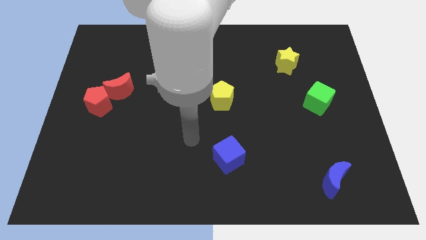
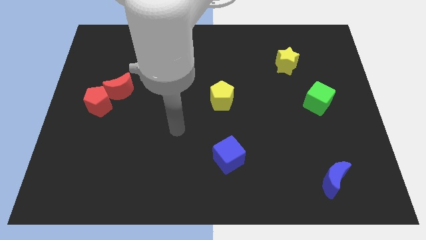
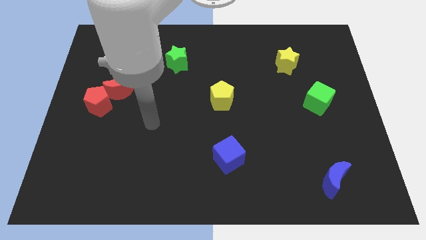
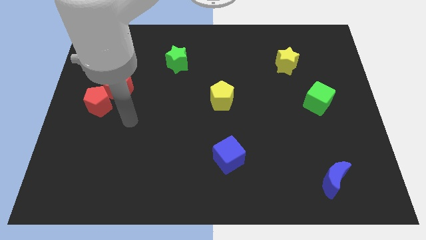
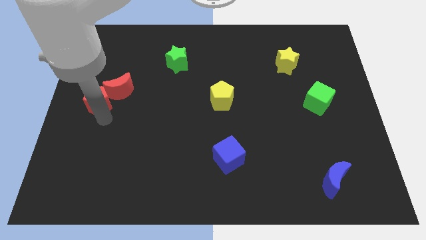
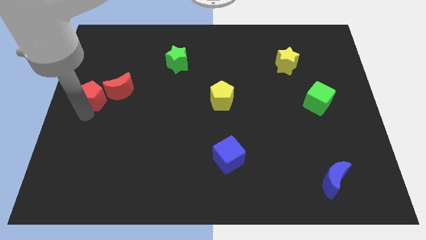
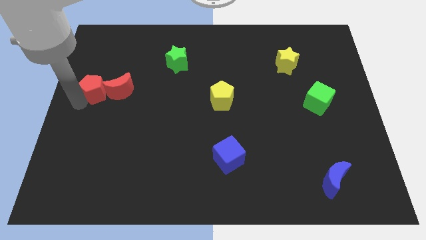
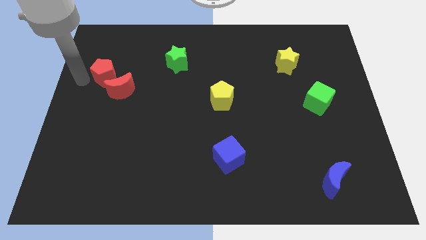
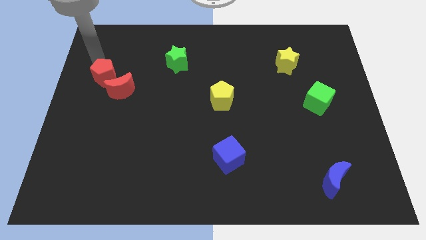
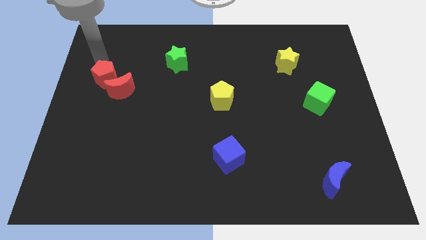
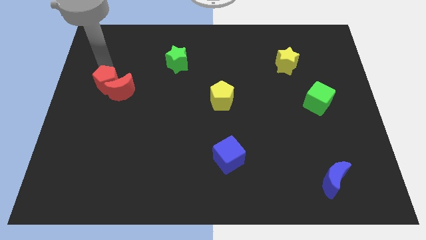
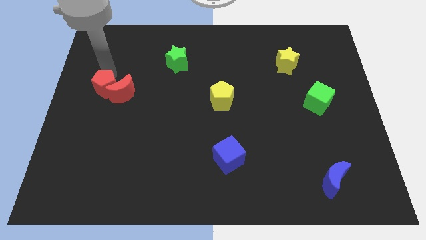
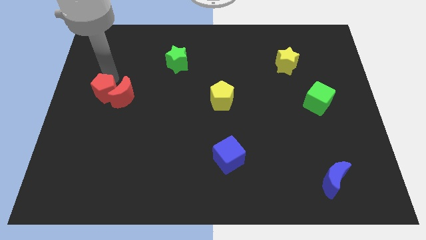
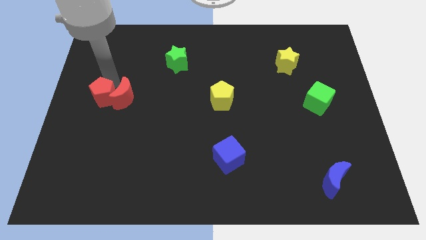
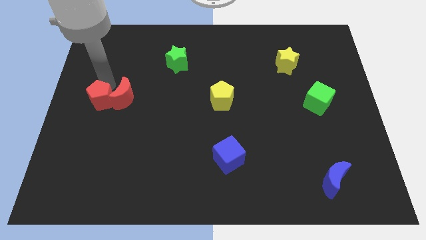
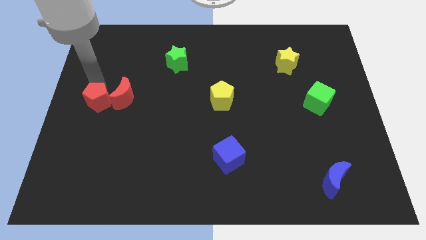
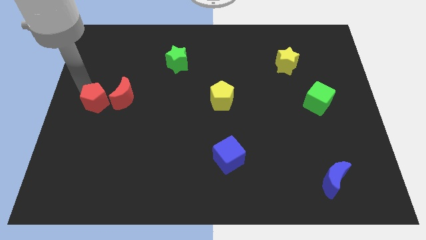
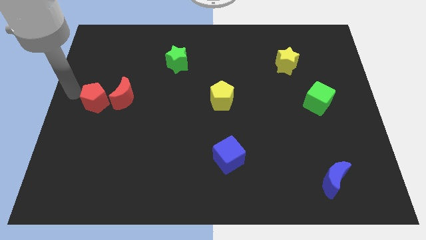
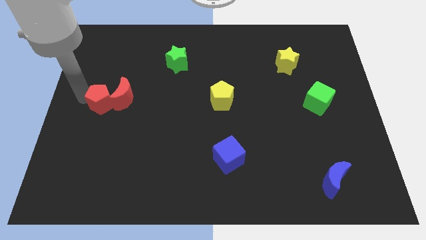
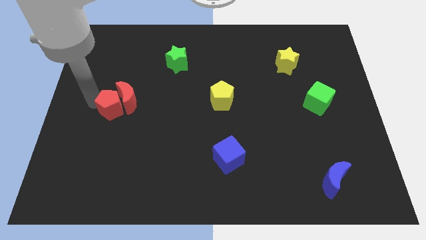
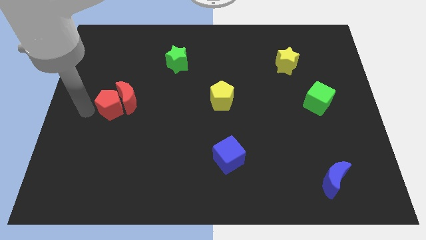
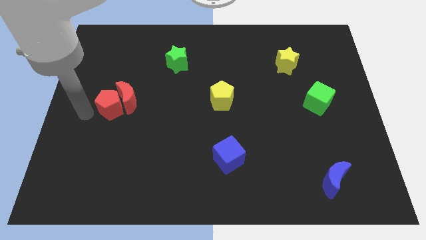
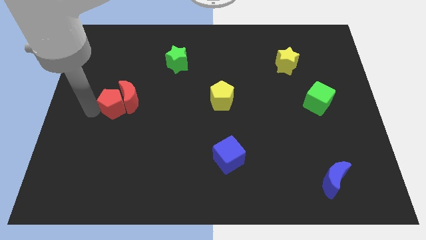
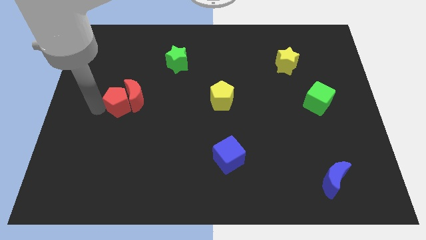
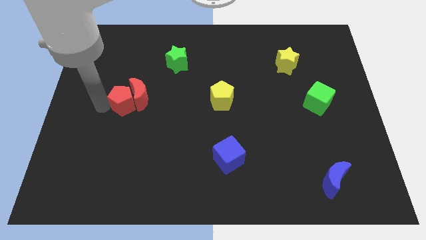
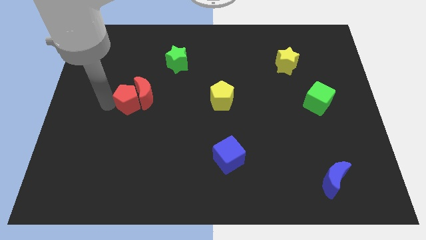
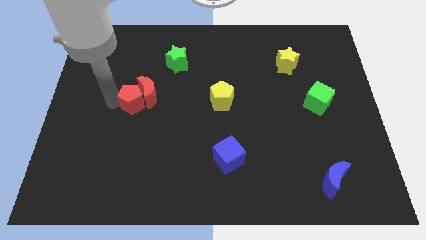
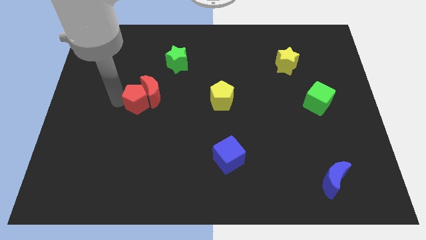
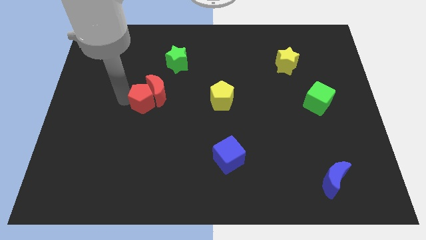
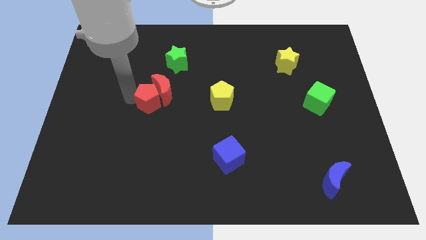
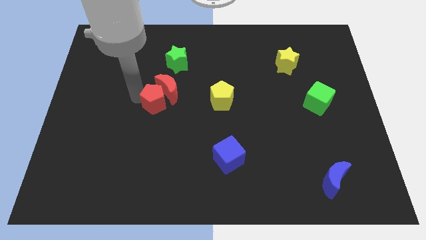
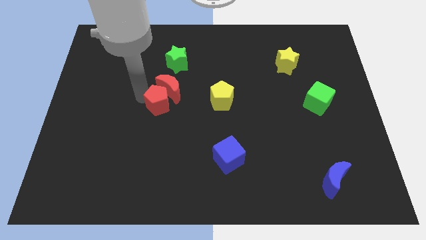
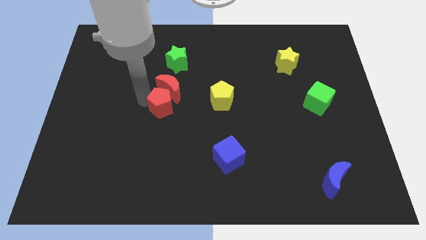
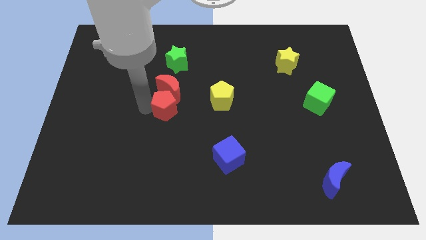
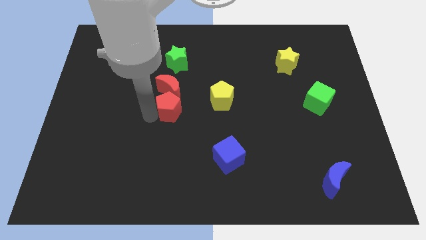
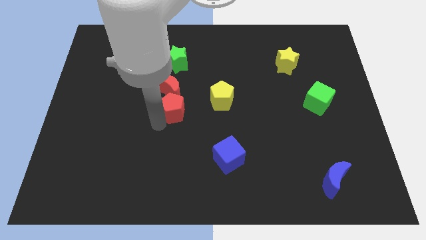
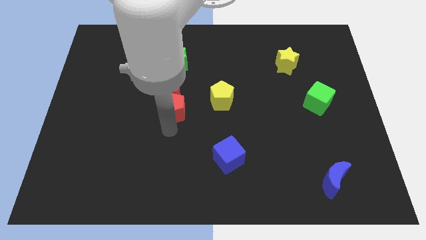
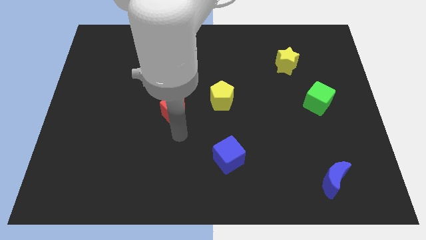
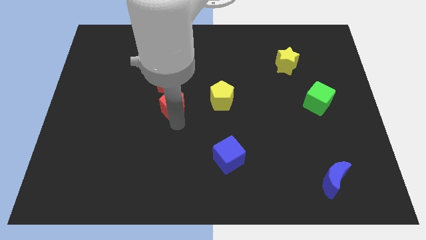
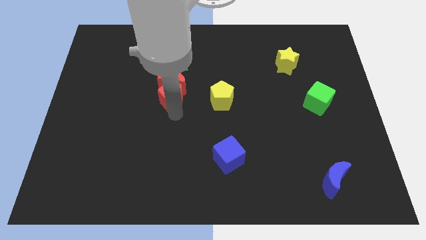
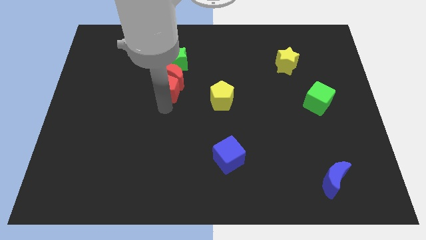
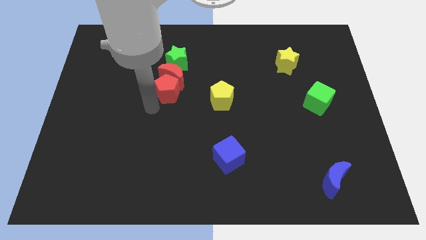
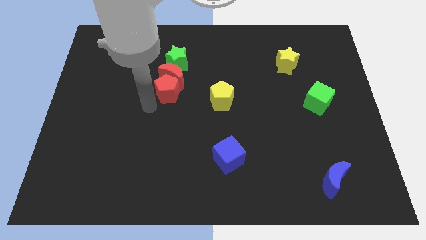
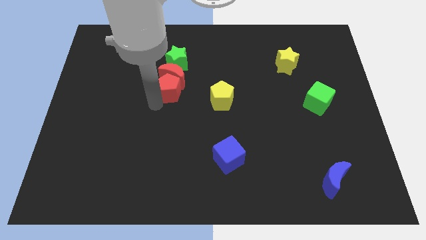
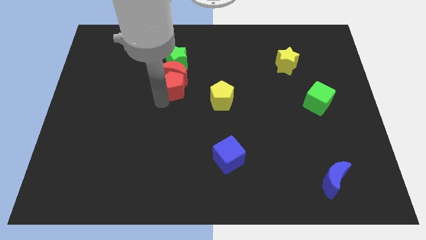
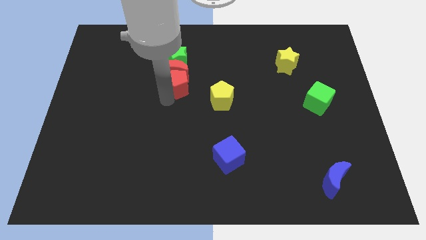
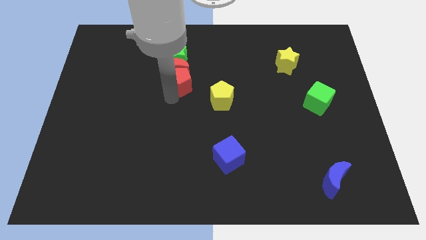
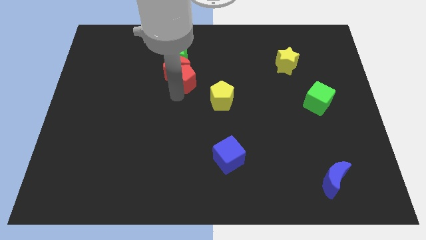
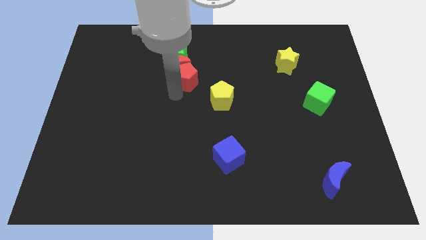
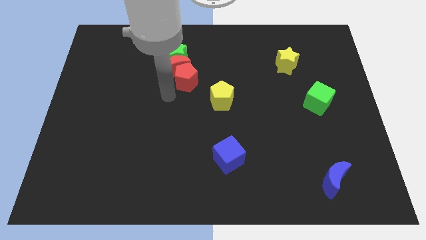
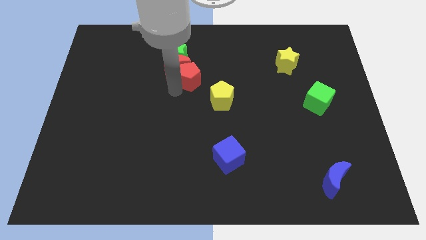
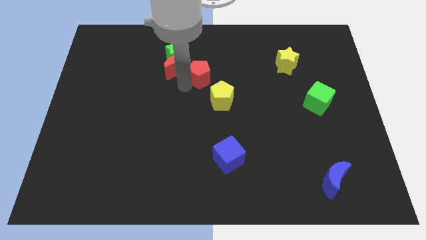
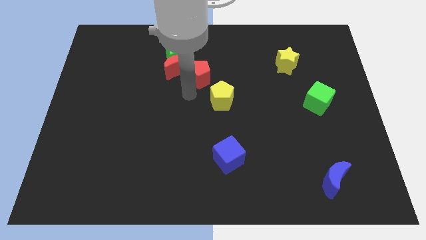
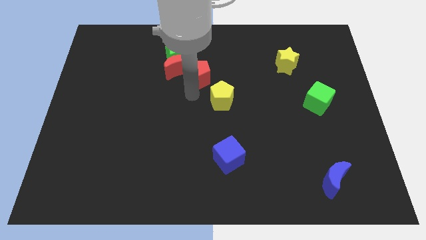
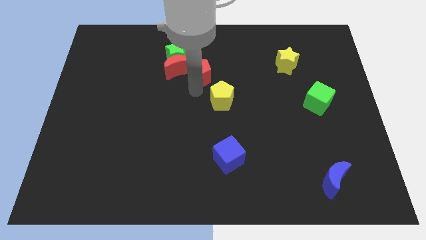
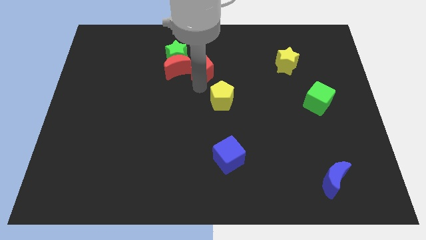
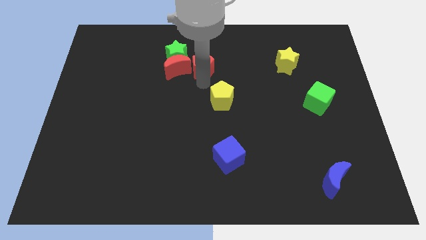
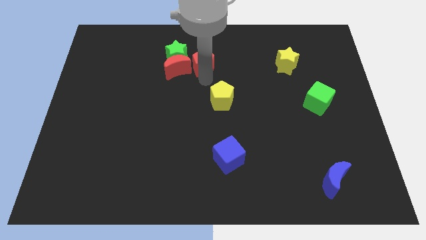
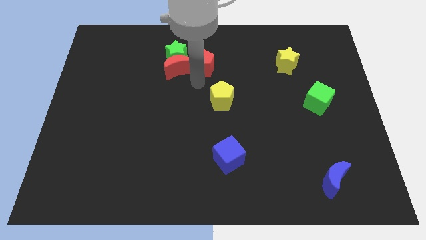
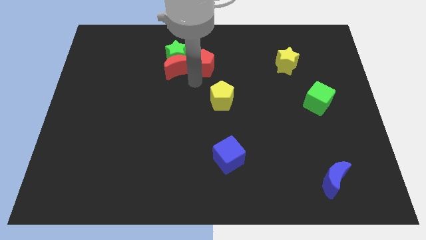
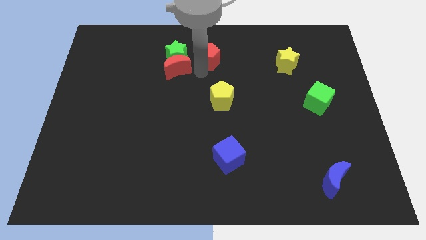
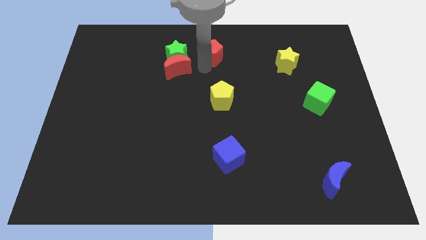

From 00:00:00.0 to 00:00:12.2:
move the red pentagon to the top side
